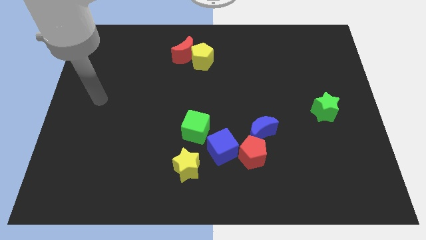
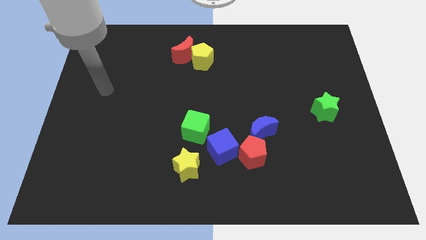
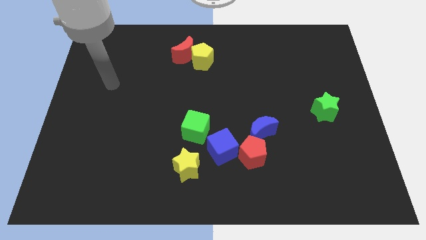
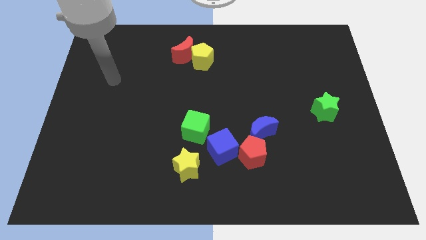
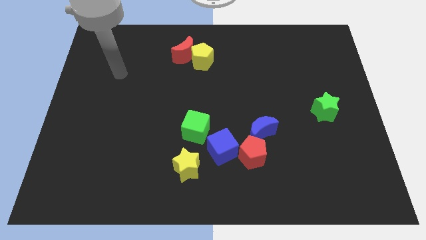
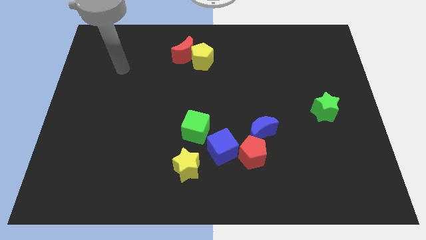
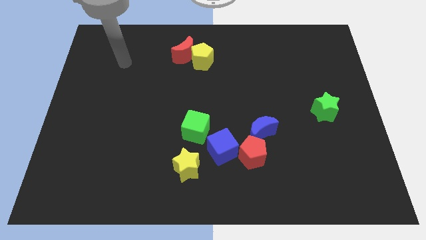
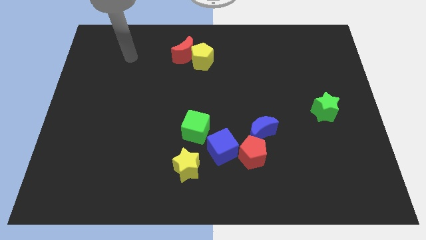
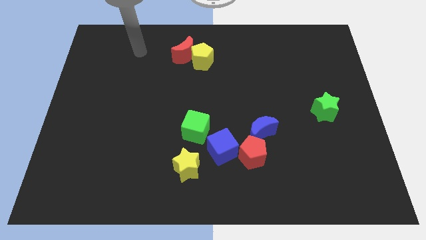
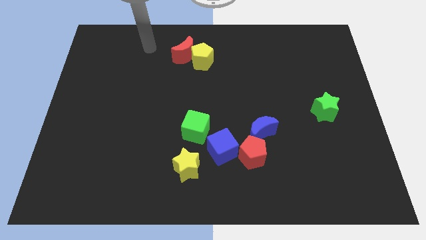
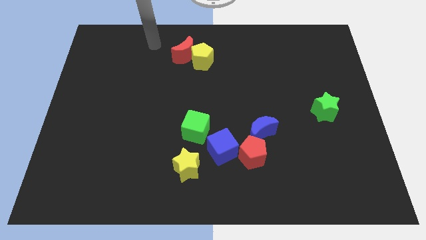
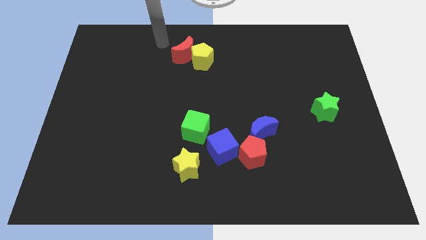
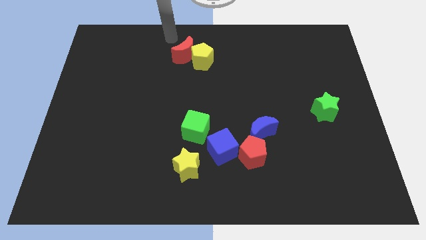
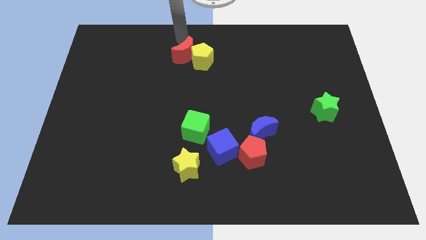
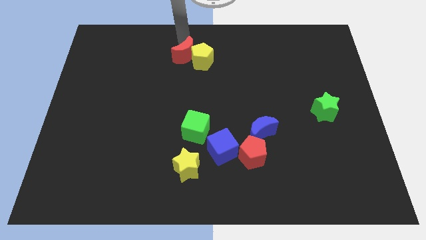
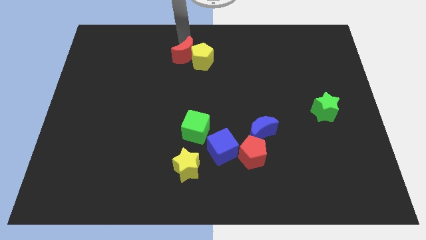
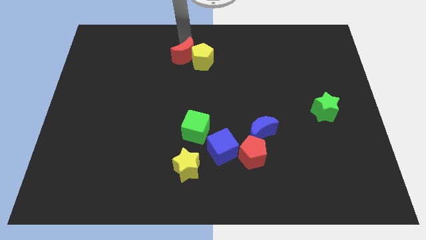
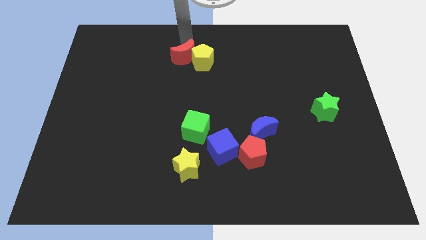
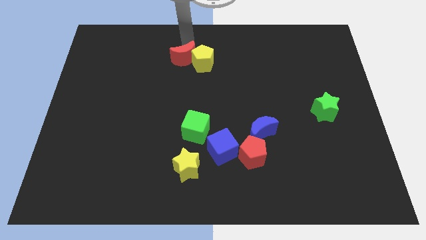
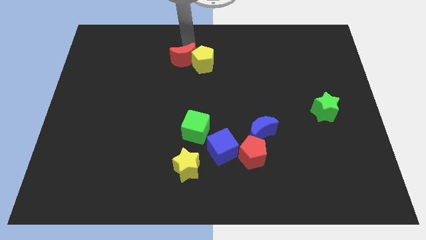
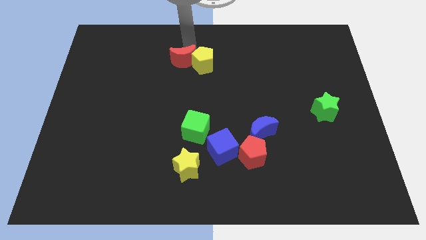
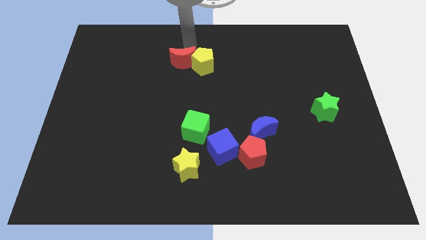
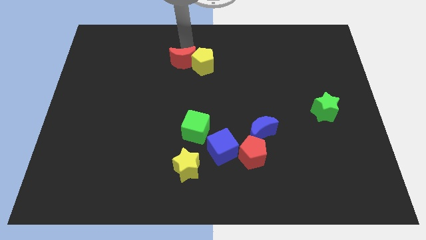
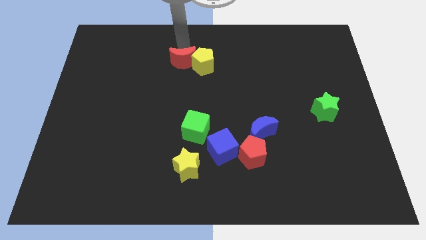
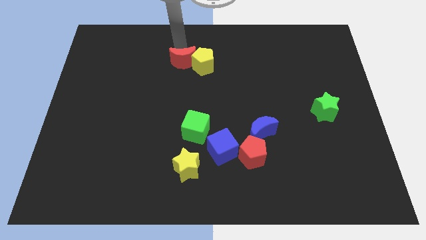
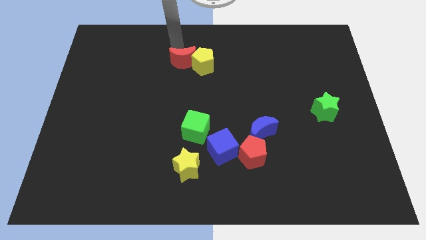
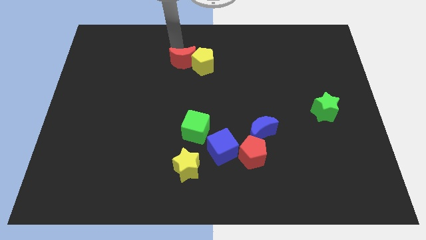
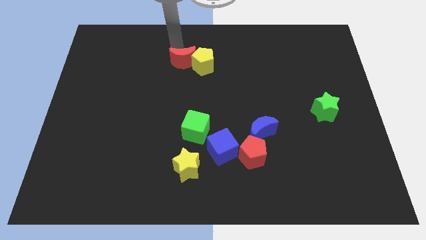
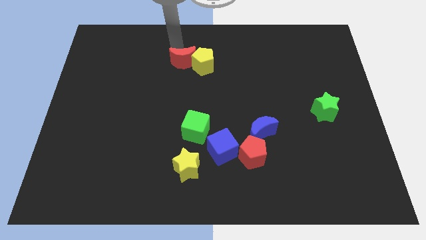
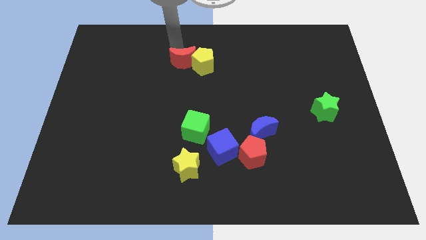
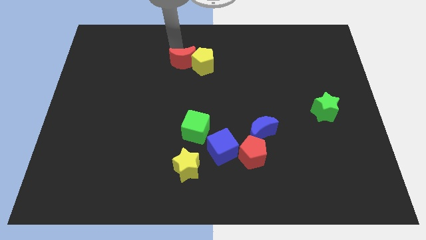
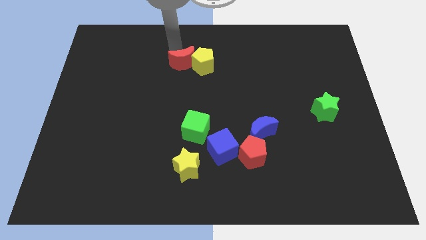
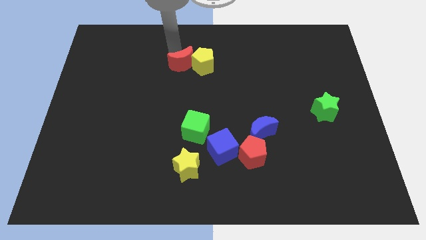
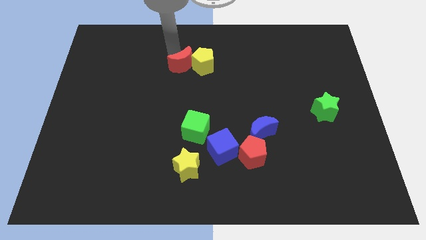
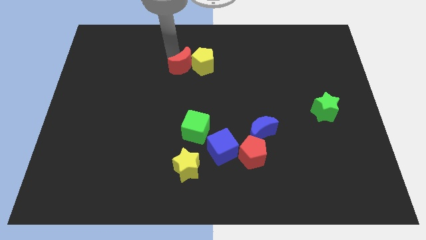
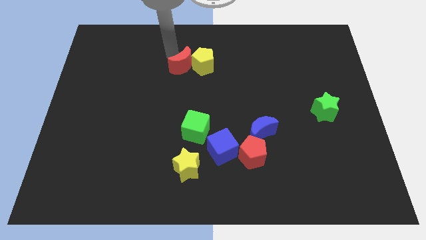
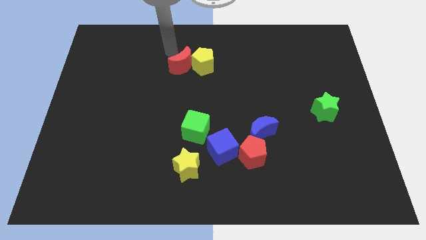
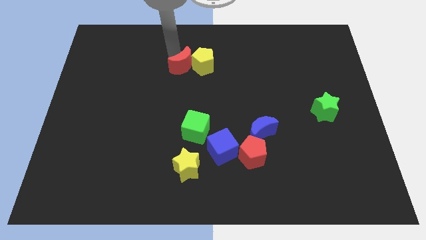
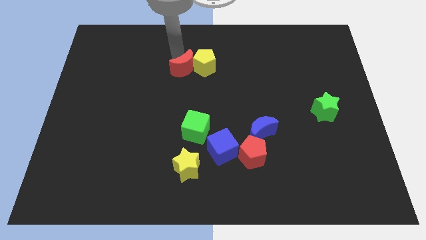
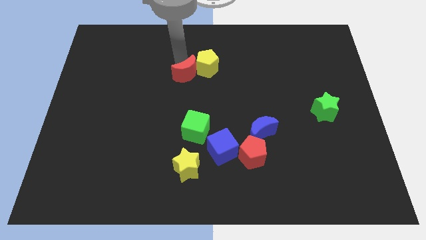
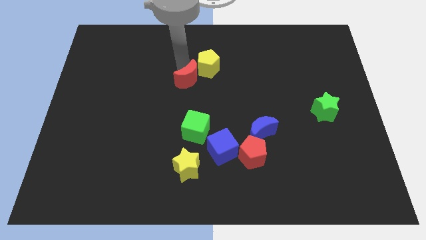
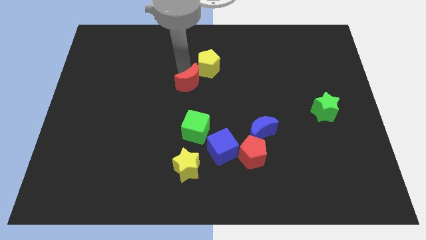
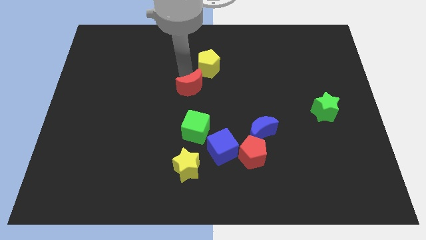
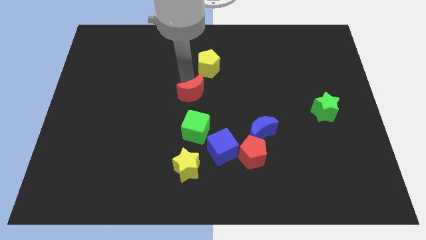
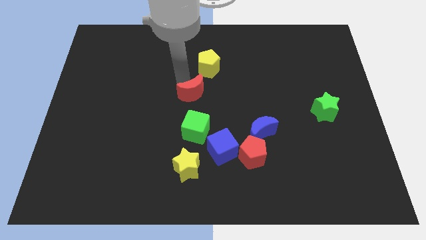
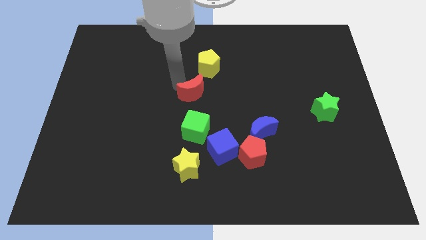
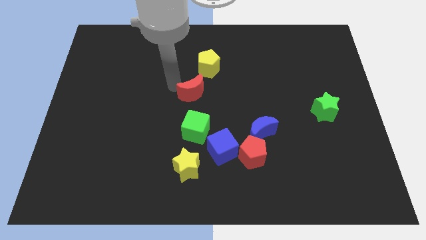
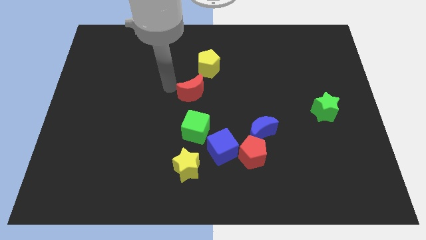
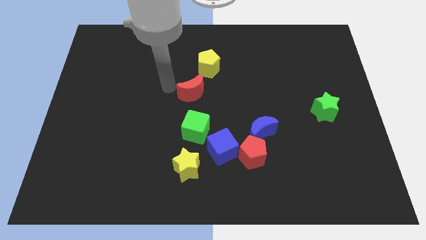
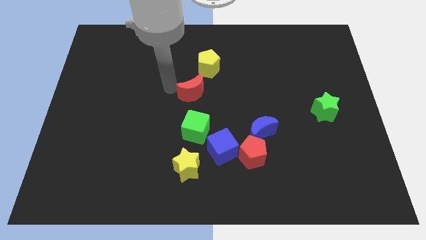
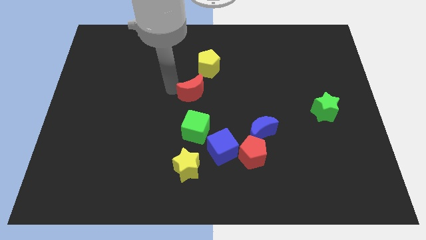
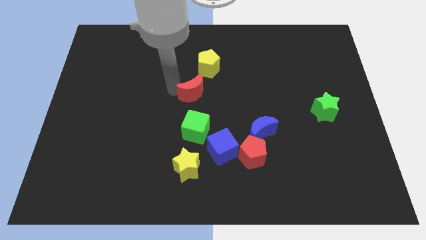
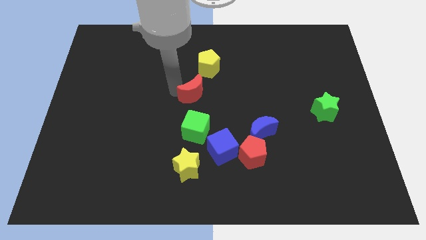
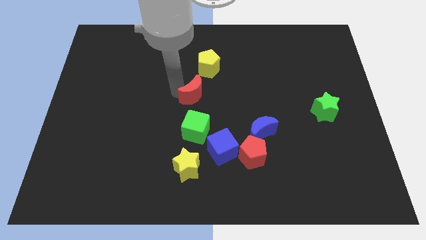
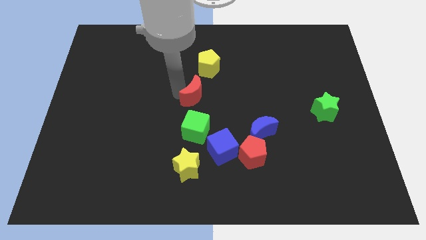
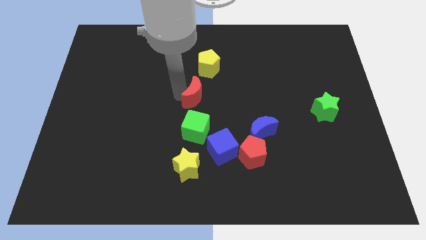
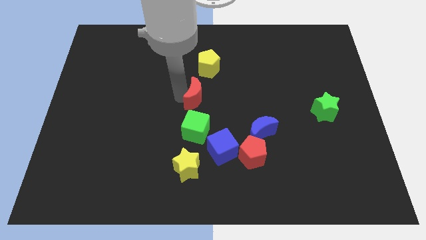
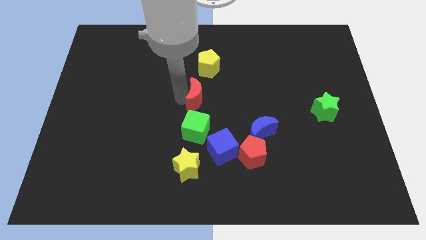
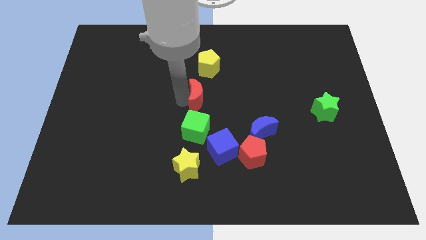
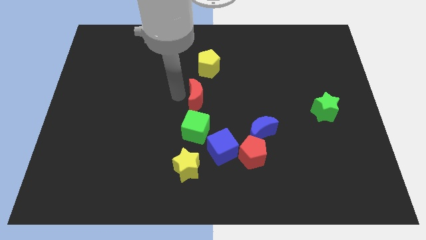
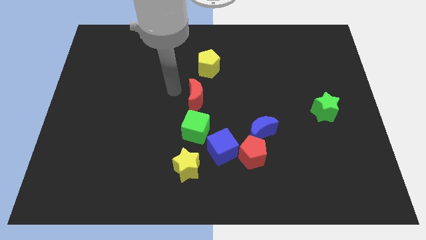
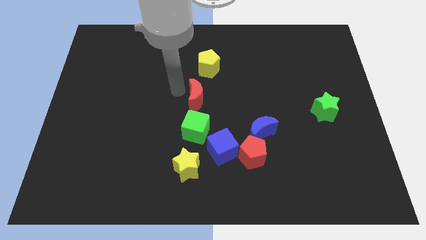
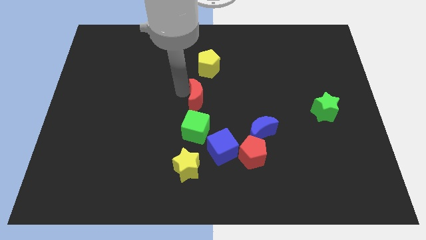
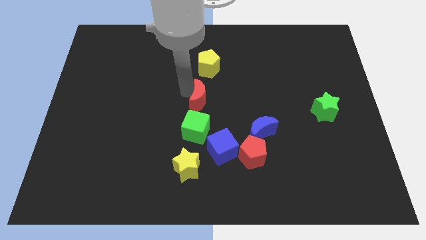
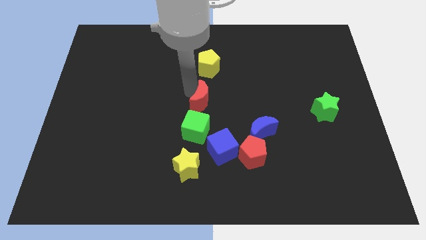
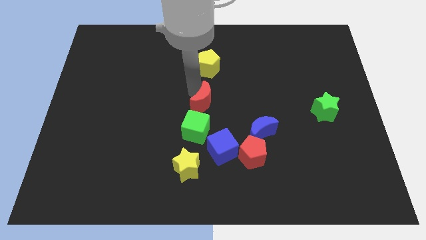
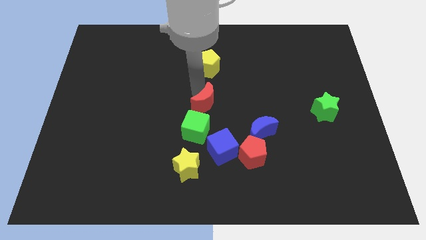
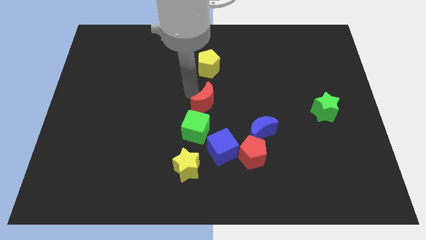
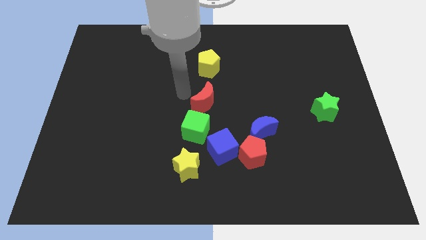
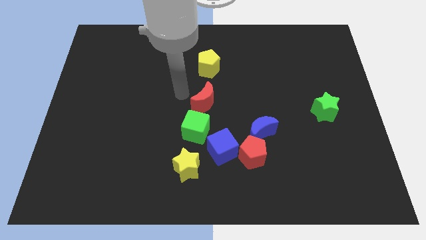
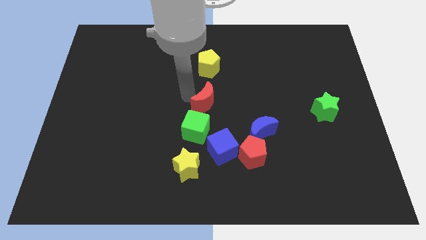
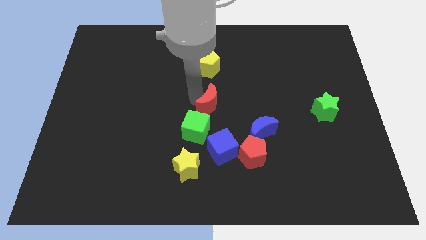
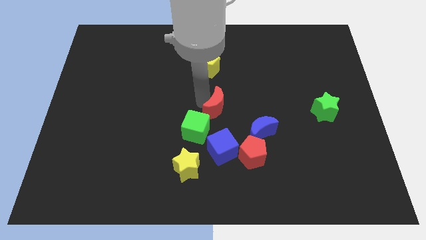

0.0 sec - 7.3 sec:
move the red moon to the top left of the blue moon
